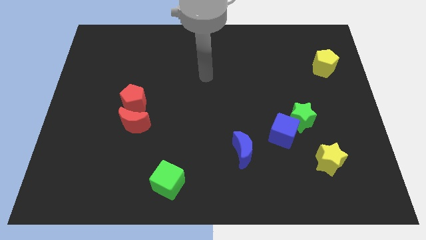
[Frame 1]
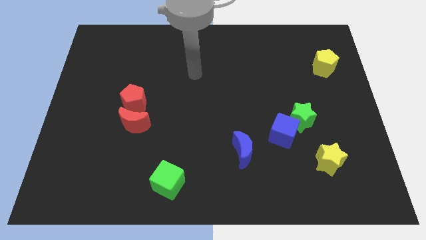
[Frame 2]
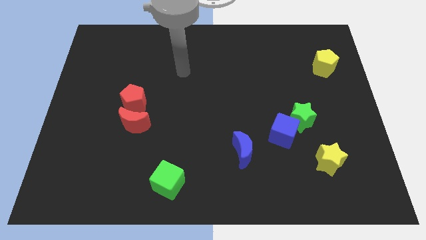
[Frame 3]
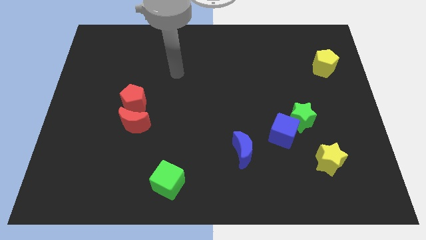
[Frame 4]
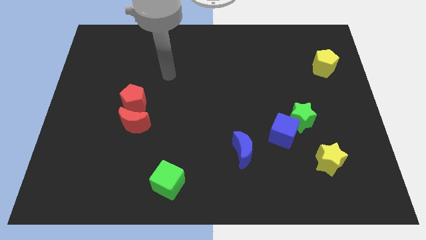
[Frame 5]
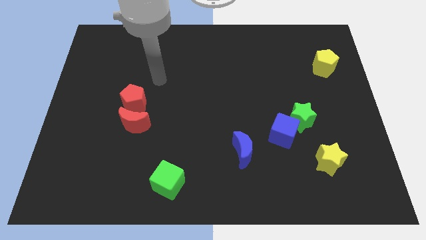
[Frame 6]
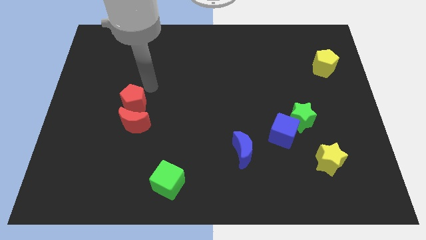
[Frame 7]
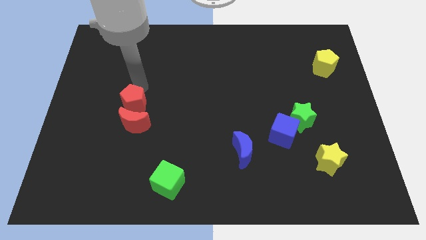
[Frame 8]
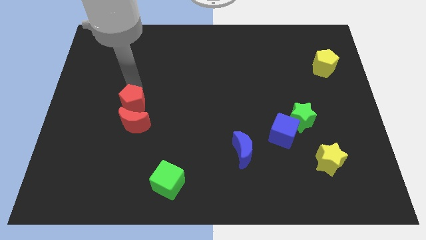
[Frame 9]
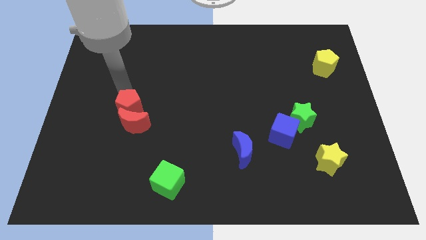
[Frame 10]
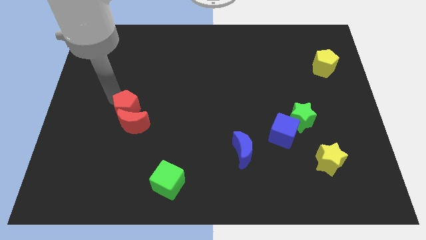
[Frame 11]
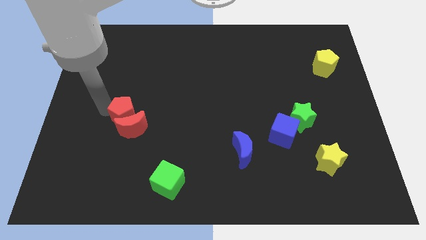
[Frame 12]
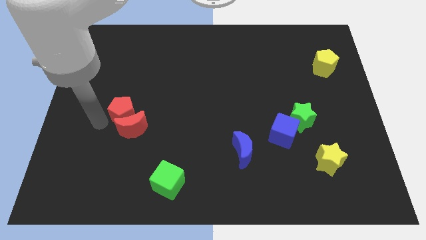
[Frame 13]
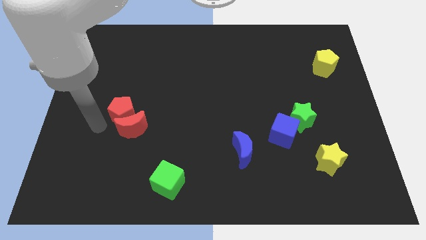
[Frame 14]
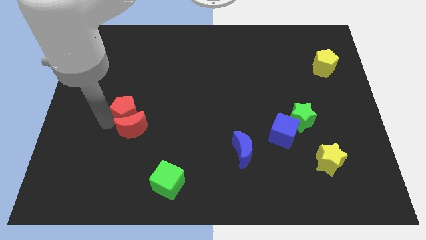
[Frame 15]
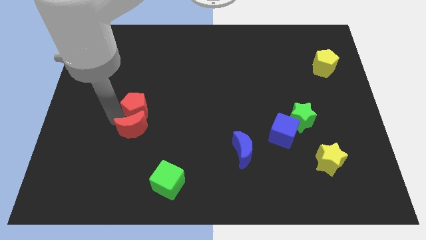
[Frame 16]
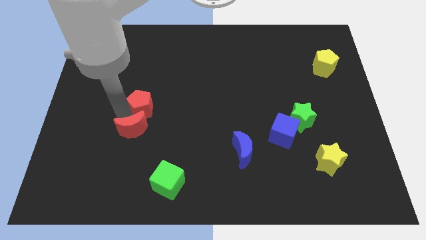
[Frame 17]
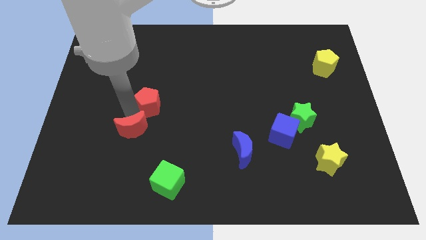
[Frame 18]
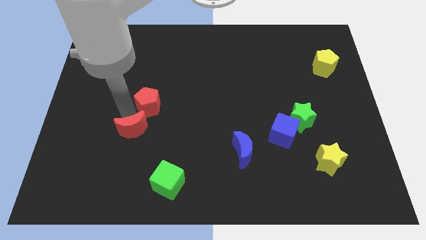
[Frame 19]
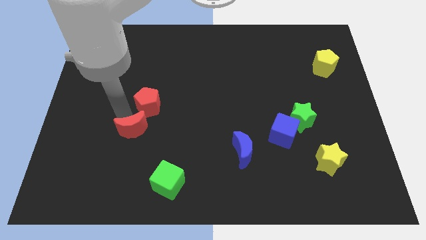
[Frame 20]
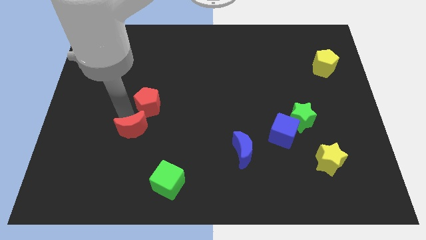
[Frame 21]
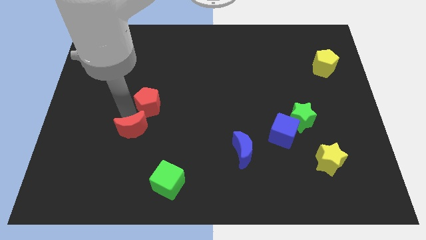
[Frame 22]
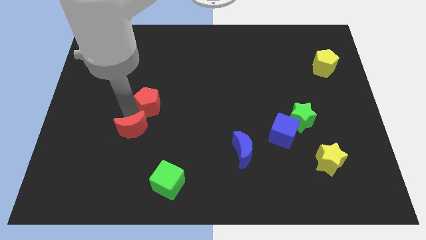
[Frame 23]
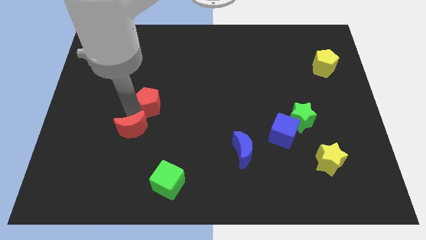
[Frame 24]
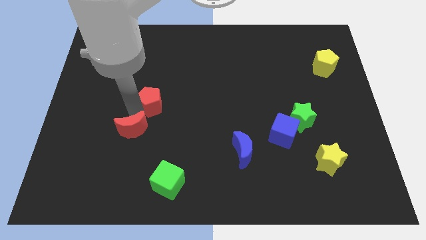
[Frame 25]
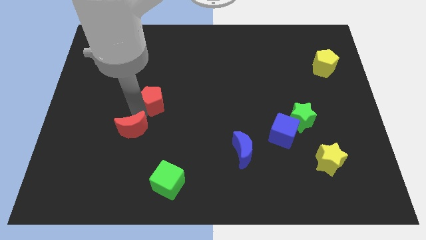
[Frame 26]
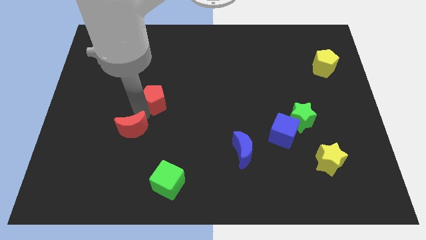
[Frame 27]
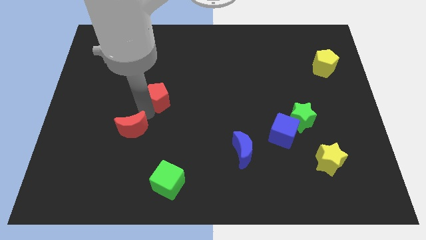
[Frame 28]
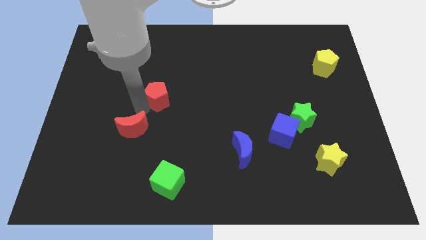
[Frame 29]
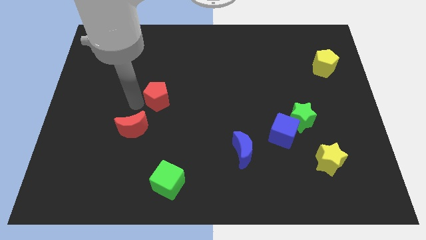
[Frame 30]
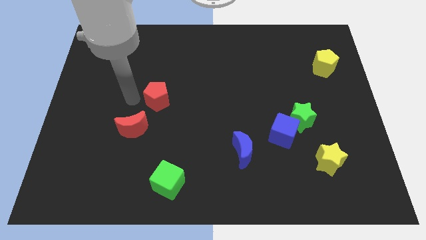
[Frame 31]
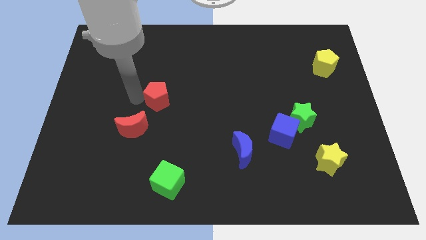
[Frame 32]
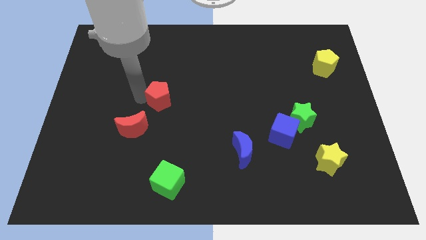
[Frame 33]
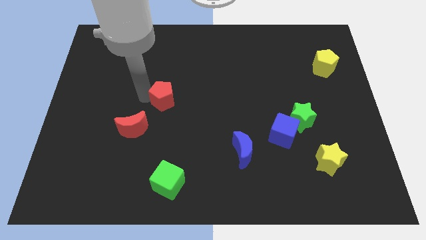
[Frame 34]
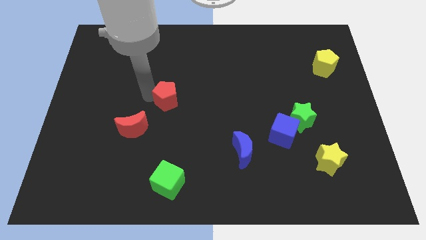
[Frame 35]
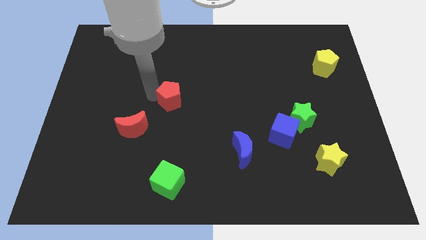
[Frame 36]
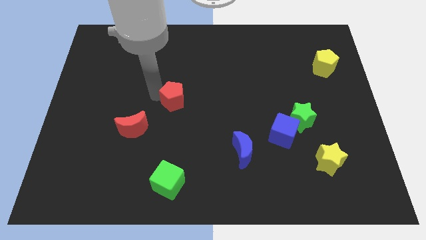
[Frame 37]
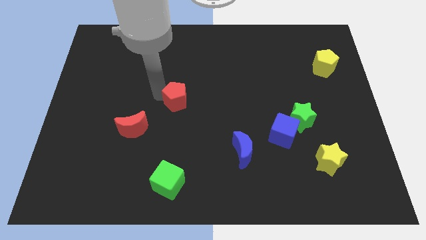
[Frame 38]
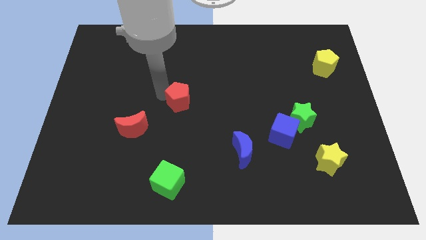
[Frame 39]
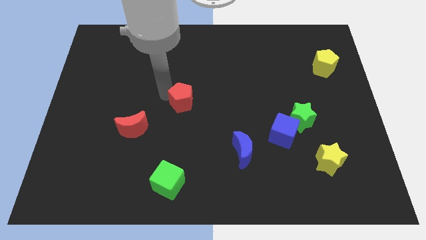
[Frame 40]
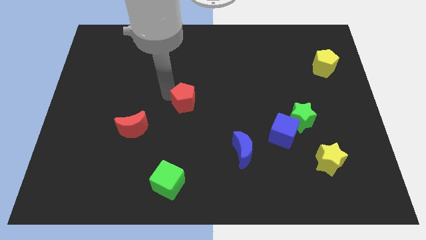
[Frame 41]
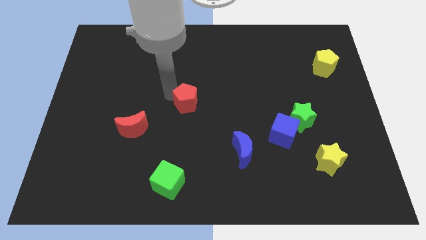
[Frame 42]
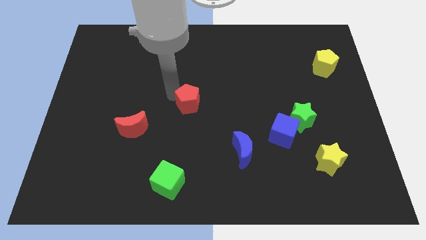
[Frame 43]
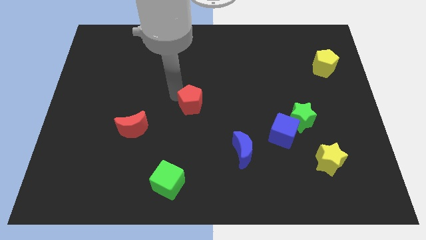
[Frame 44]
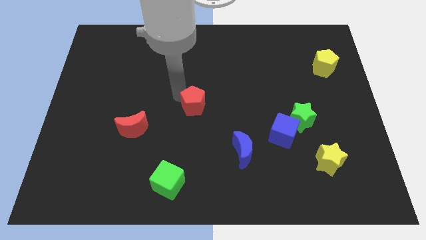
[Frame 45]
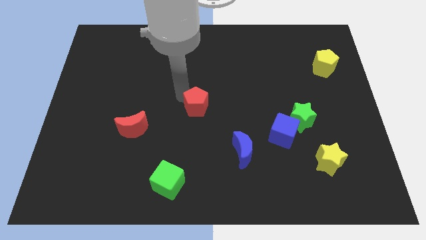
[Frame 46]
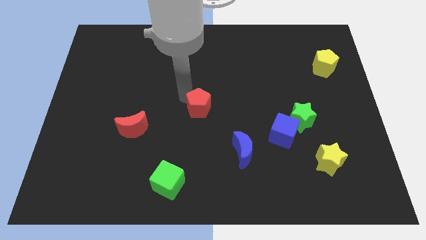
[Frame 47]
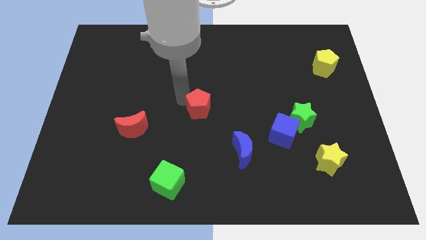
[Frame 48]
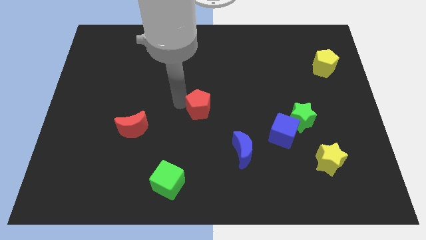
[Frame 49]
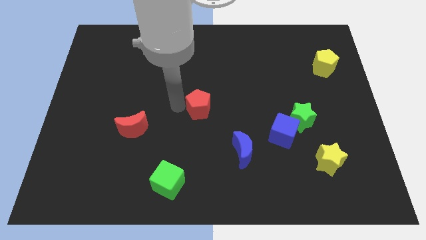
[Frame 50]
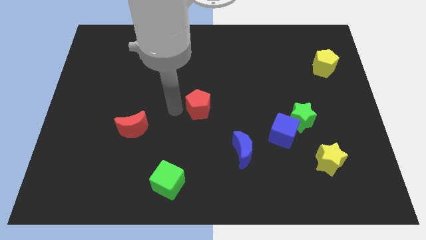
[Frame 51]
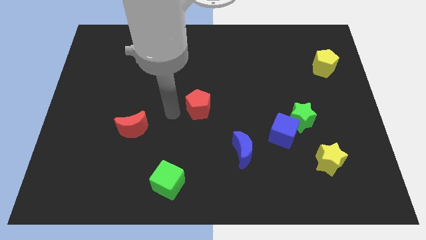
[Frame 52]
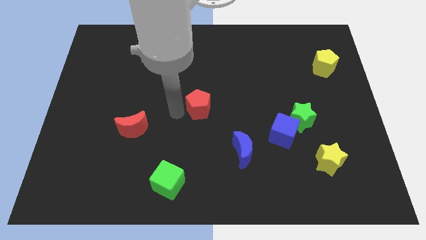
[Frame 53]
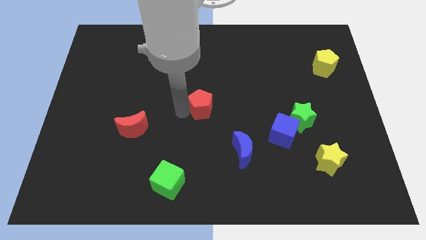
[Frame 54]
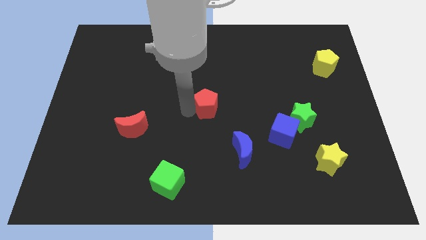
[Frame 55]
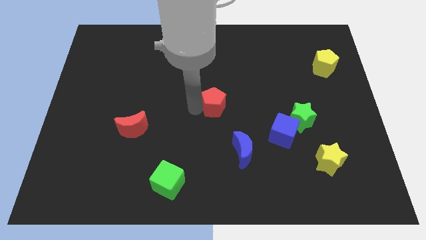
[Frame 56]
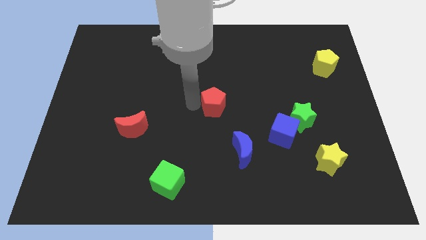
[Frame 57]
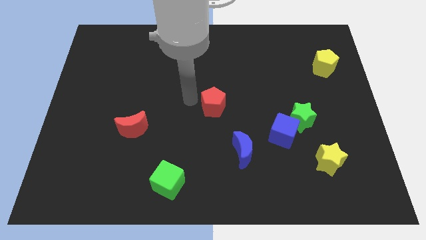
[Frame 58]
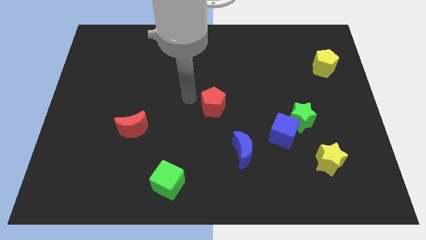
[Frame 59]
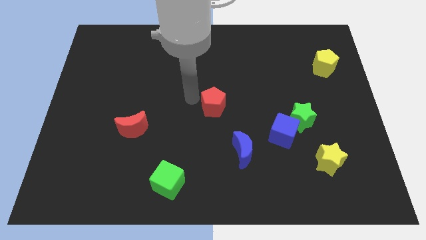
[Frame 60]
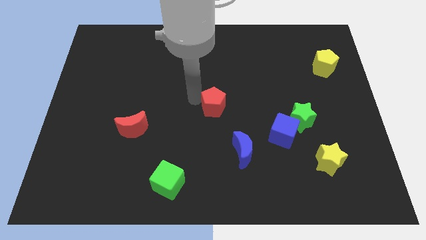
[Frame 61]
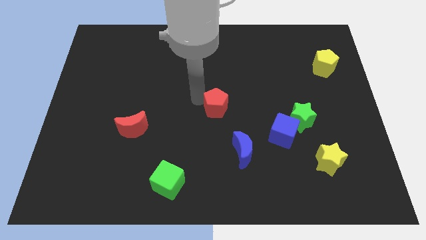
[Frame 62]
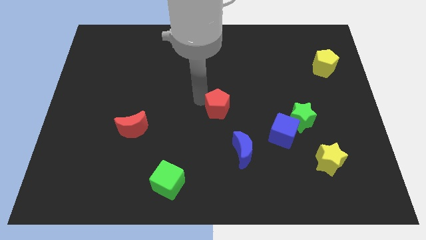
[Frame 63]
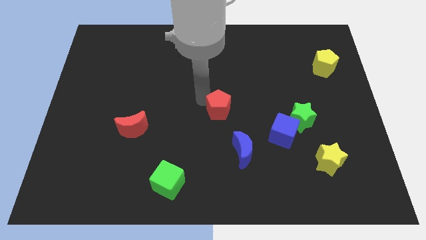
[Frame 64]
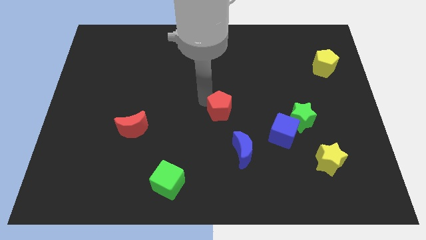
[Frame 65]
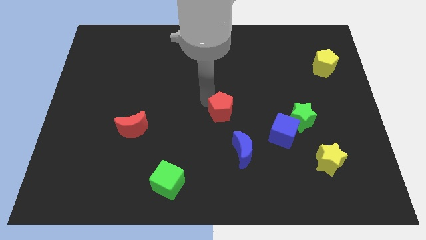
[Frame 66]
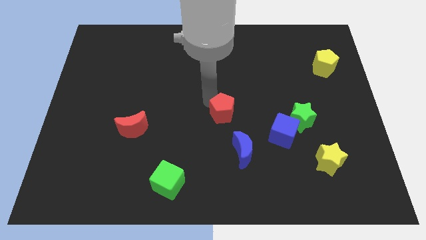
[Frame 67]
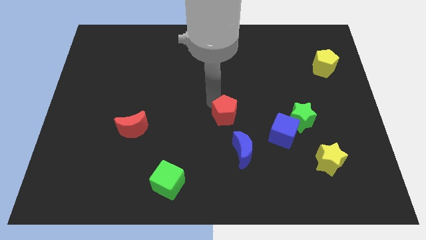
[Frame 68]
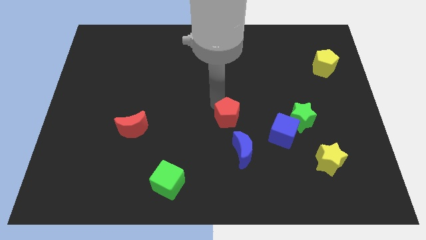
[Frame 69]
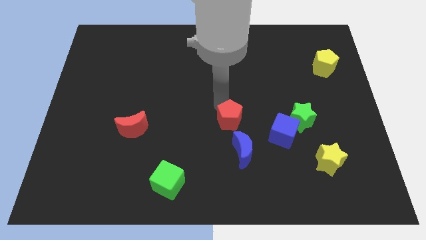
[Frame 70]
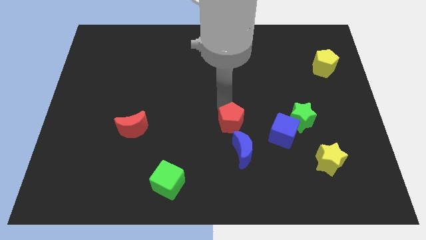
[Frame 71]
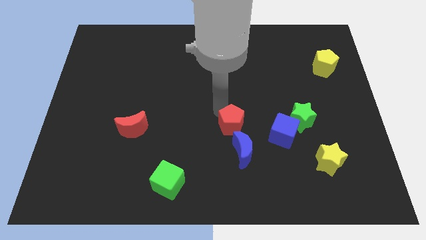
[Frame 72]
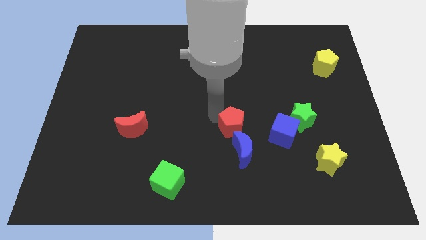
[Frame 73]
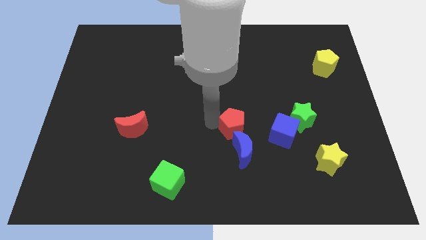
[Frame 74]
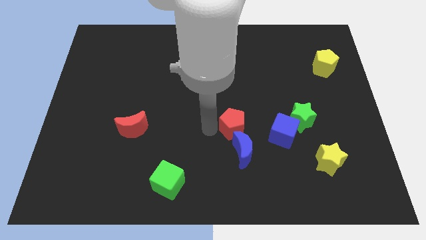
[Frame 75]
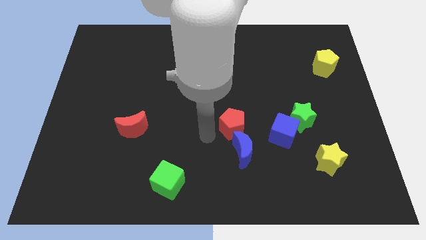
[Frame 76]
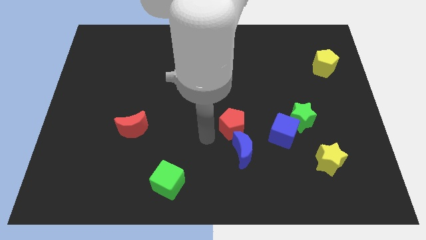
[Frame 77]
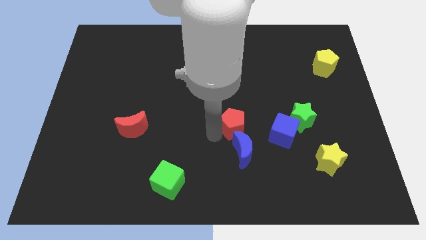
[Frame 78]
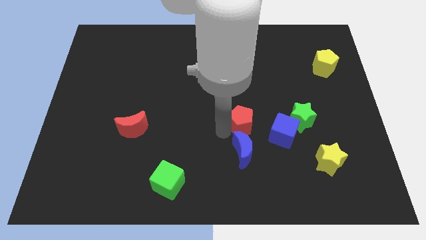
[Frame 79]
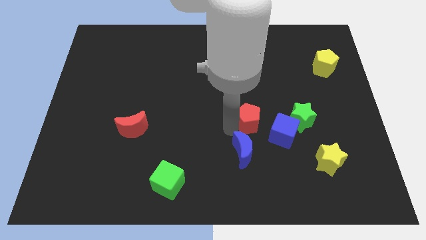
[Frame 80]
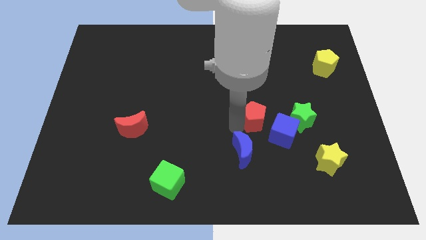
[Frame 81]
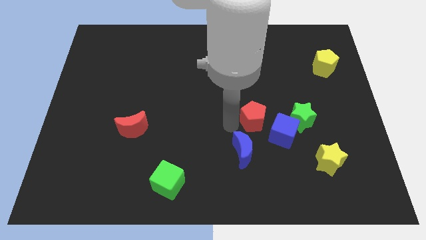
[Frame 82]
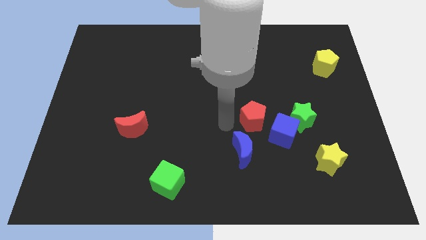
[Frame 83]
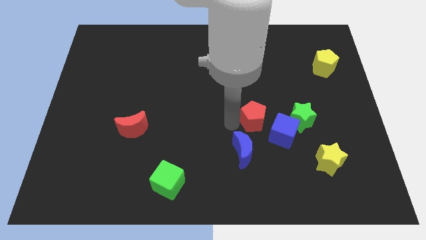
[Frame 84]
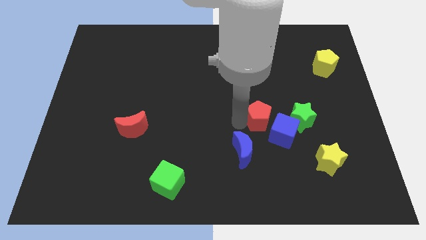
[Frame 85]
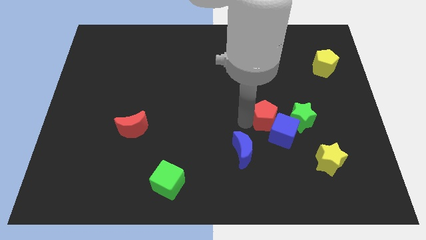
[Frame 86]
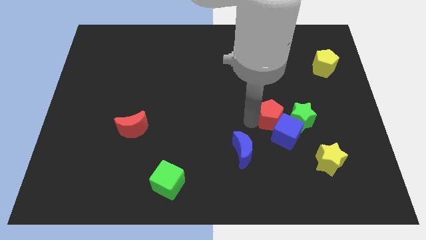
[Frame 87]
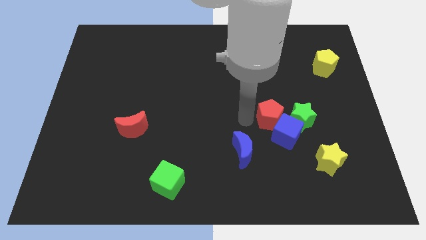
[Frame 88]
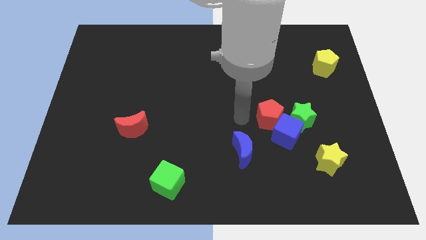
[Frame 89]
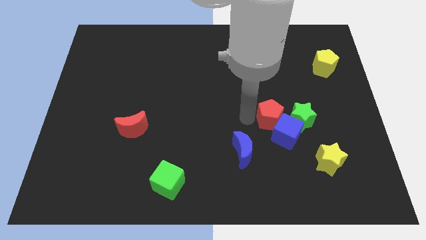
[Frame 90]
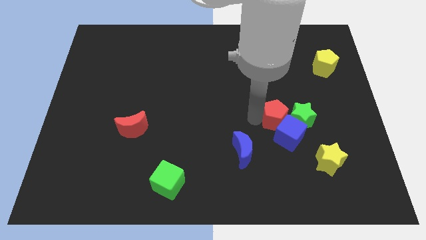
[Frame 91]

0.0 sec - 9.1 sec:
slide the red pentagon close to the green star
